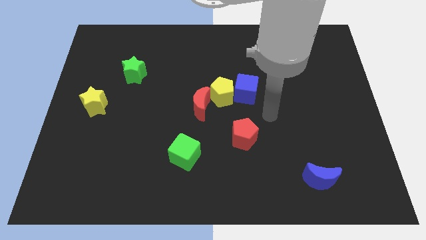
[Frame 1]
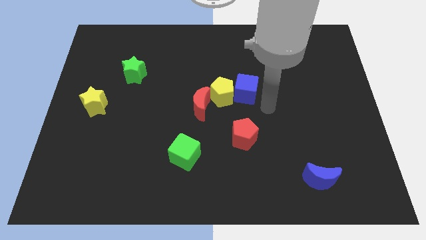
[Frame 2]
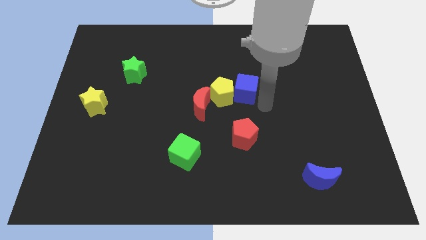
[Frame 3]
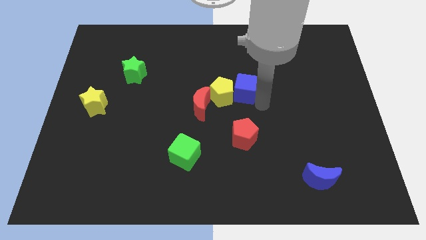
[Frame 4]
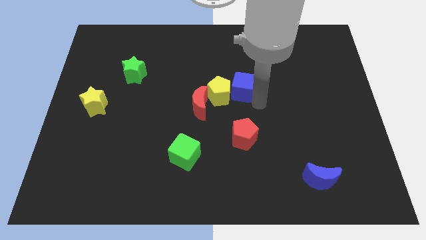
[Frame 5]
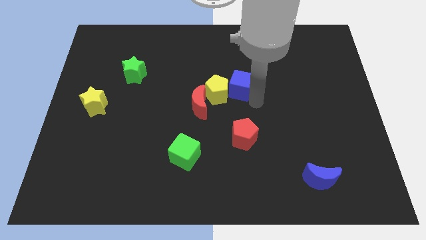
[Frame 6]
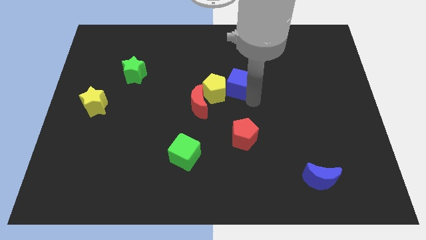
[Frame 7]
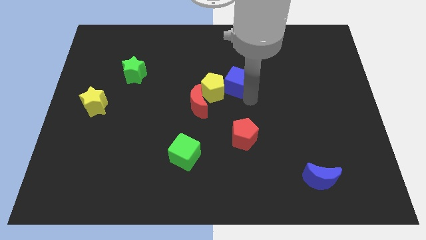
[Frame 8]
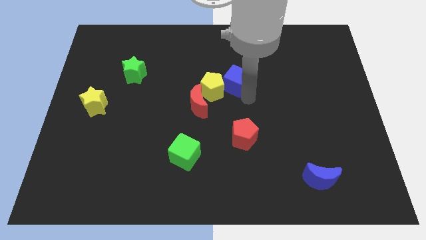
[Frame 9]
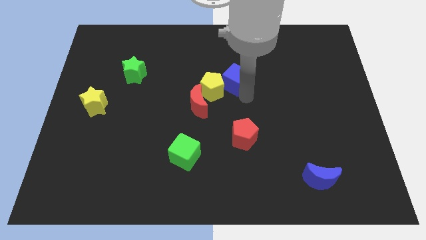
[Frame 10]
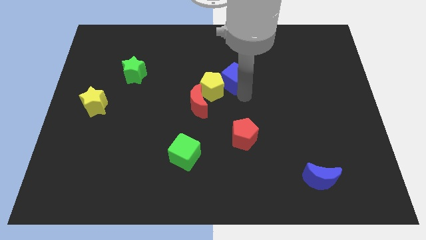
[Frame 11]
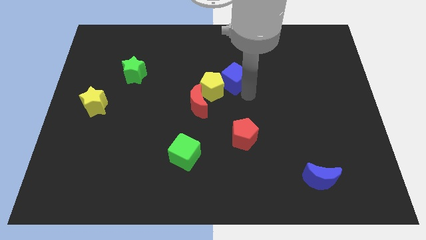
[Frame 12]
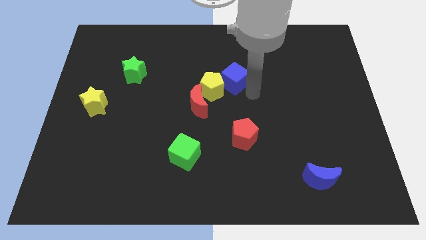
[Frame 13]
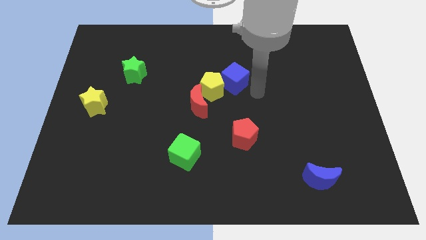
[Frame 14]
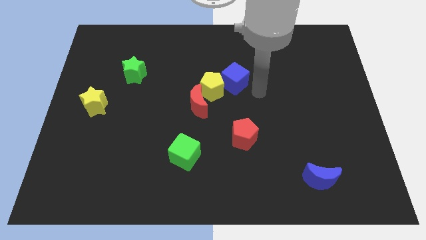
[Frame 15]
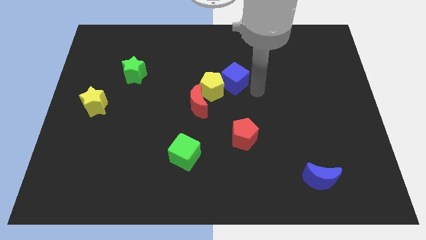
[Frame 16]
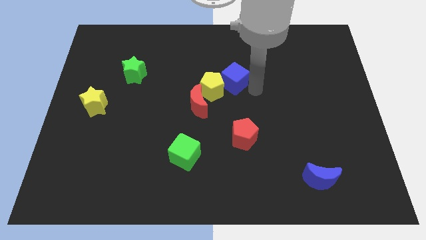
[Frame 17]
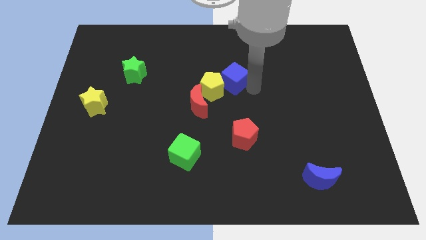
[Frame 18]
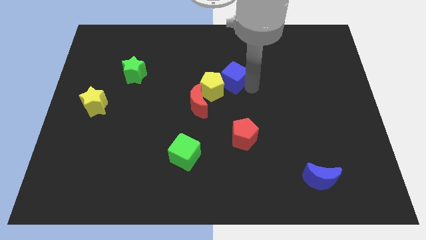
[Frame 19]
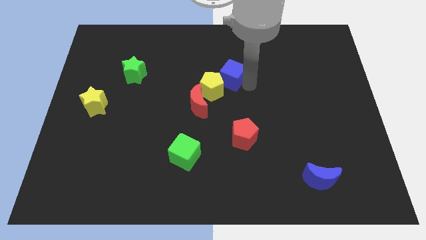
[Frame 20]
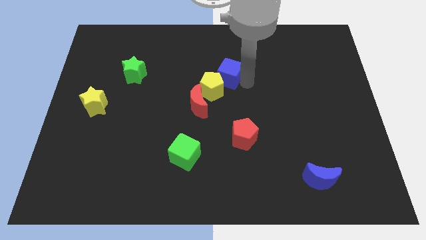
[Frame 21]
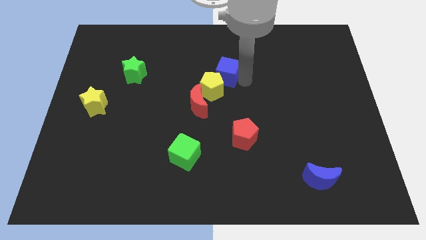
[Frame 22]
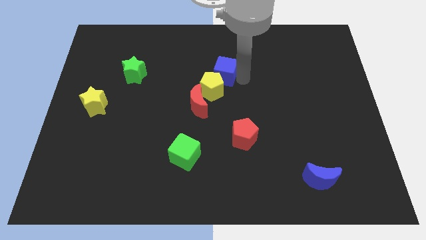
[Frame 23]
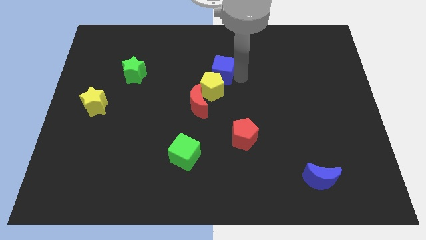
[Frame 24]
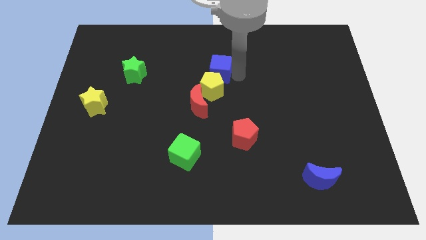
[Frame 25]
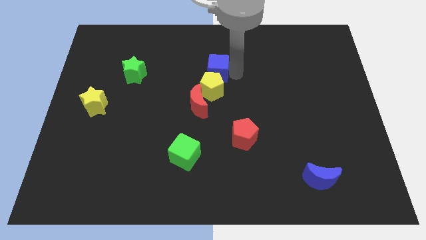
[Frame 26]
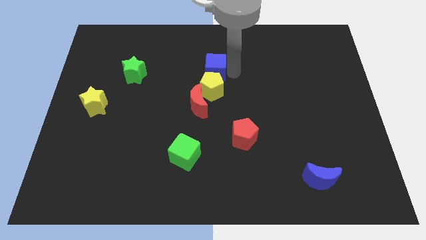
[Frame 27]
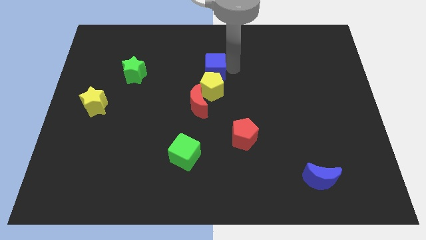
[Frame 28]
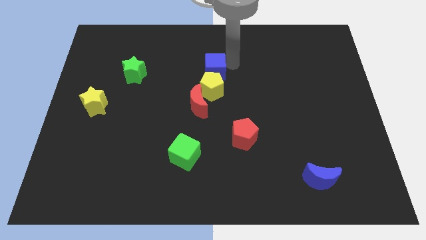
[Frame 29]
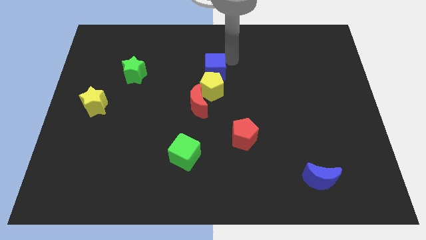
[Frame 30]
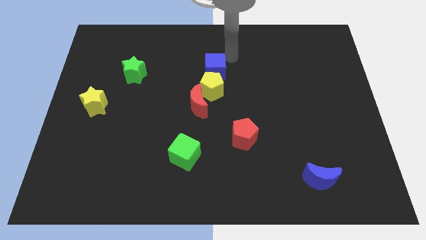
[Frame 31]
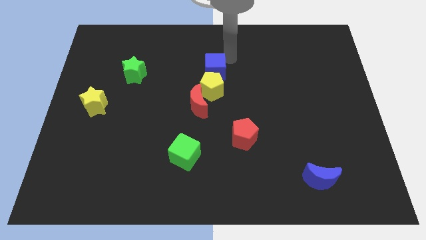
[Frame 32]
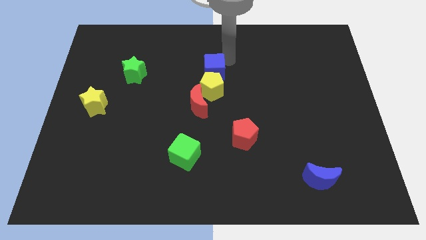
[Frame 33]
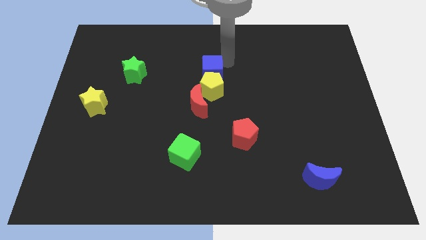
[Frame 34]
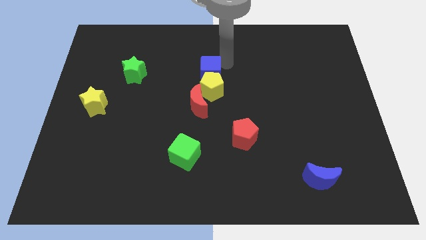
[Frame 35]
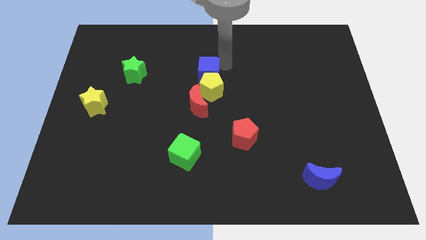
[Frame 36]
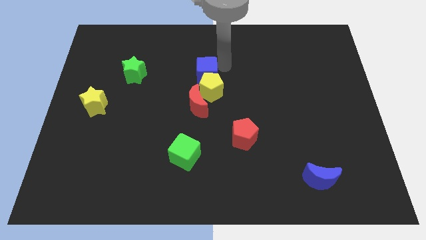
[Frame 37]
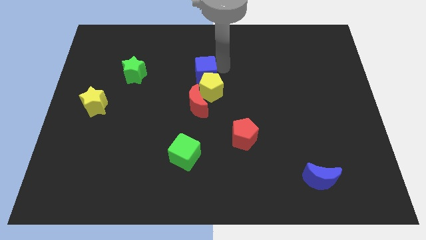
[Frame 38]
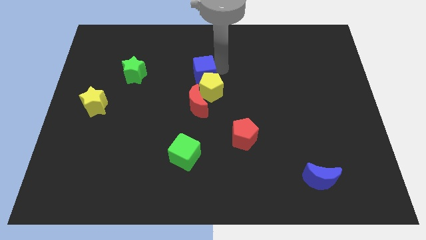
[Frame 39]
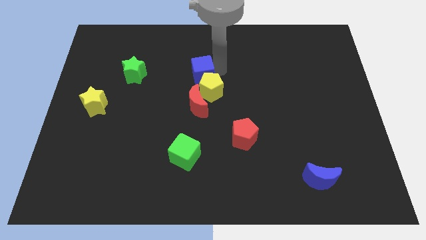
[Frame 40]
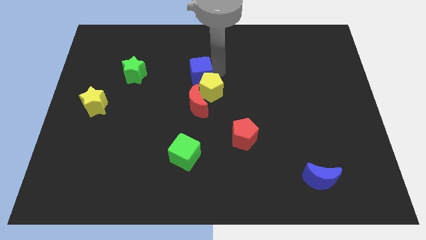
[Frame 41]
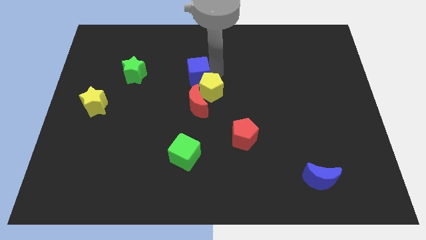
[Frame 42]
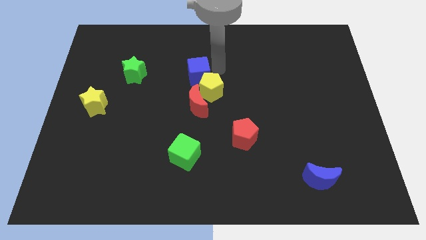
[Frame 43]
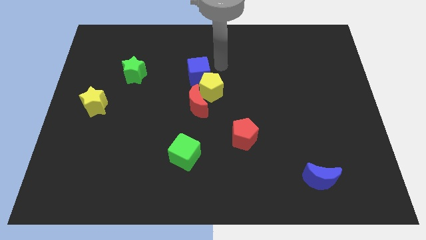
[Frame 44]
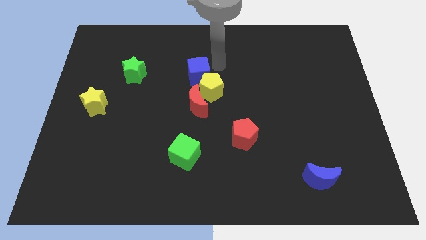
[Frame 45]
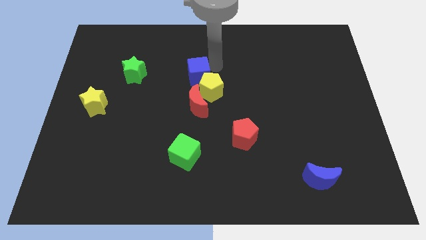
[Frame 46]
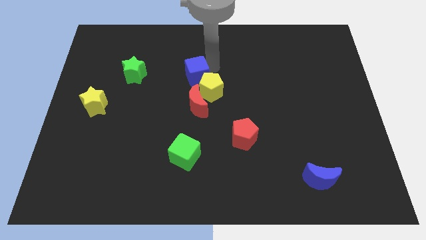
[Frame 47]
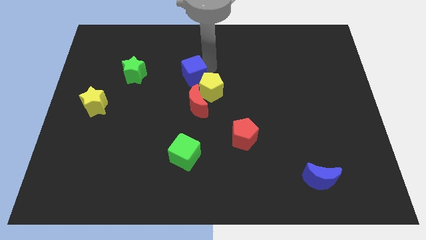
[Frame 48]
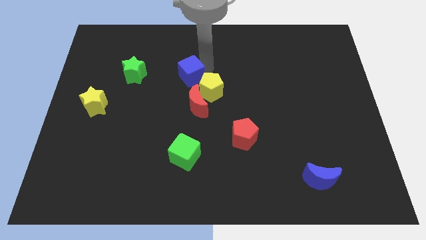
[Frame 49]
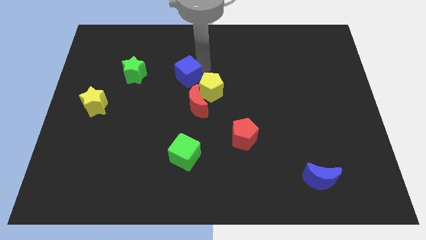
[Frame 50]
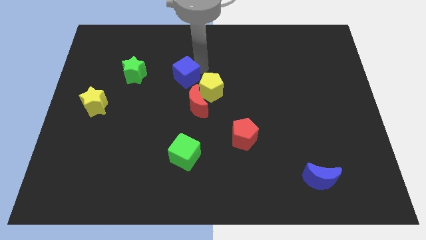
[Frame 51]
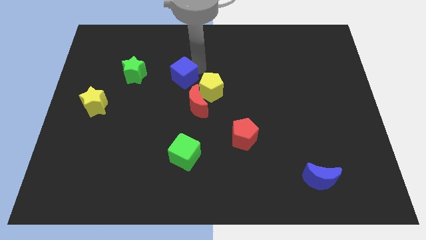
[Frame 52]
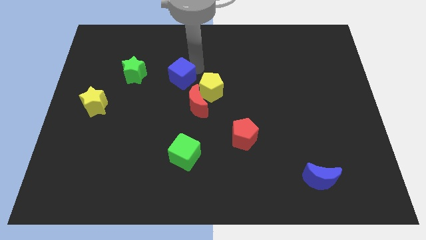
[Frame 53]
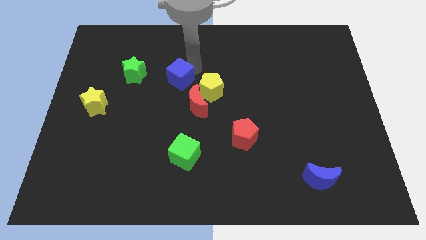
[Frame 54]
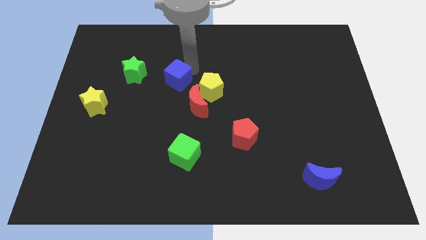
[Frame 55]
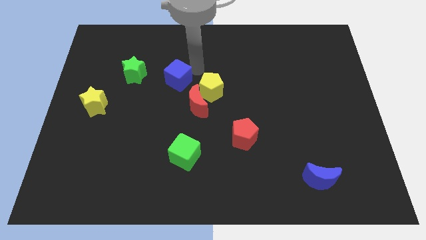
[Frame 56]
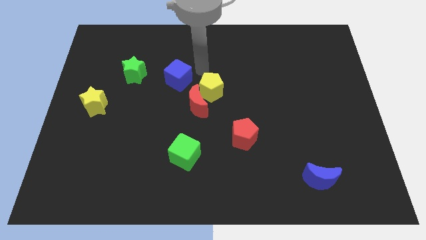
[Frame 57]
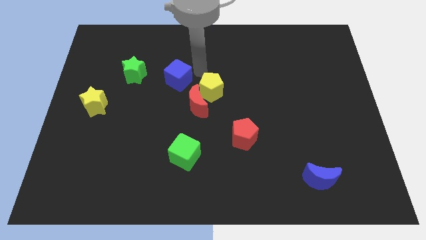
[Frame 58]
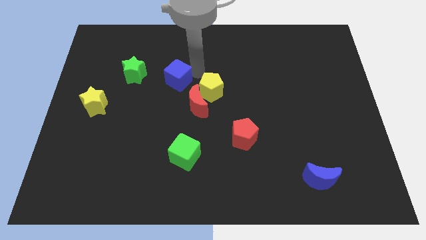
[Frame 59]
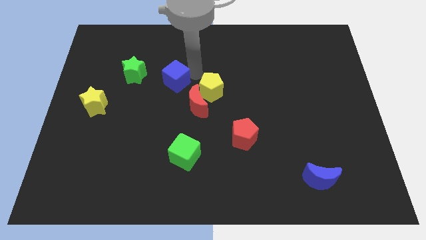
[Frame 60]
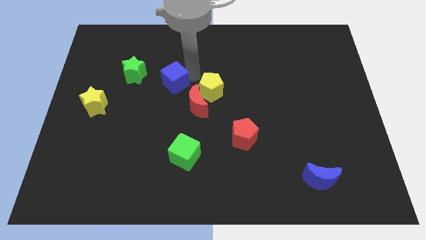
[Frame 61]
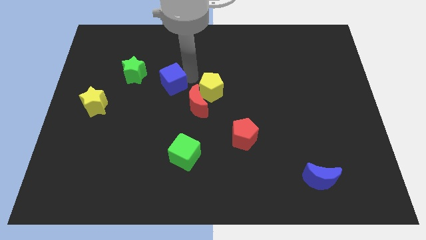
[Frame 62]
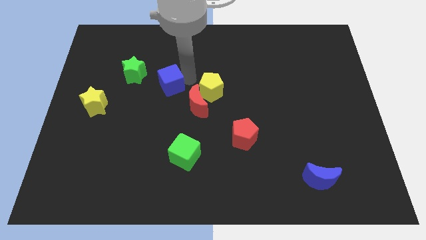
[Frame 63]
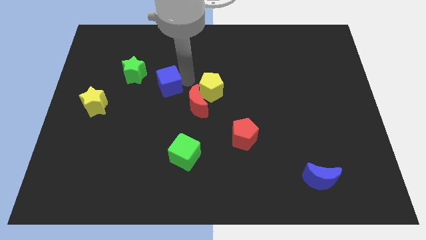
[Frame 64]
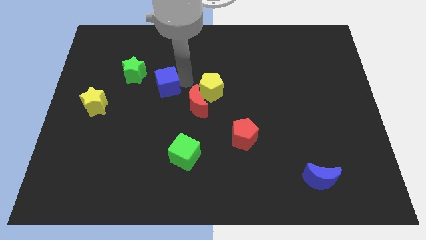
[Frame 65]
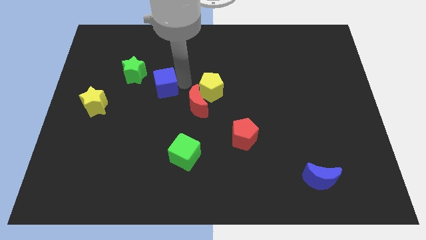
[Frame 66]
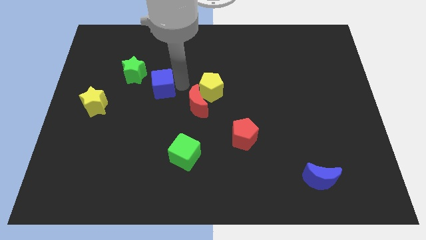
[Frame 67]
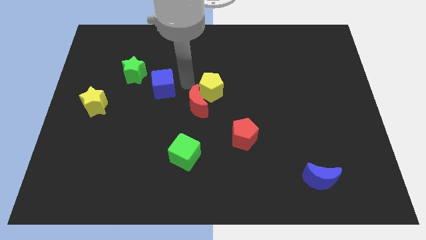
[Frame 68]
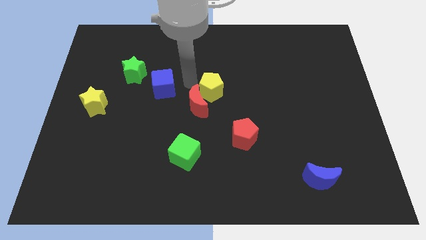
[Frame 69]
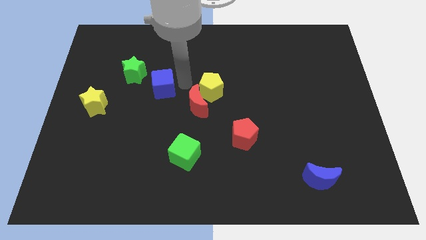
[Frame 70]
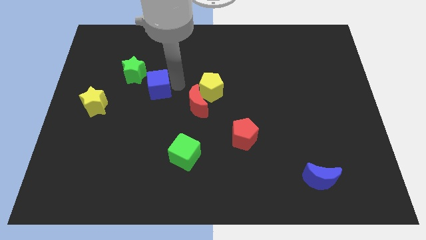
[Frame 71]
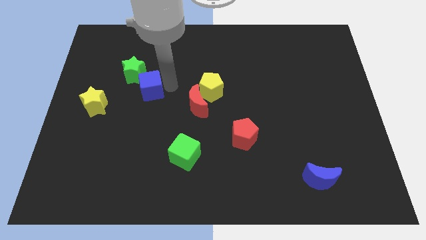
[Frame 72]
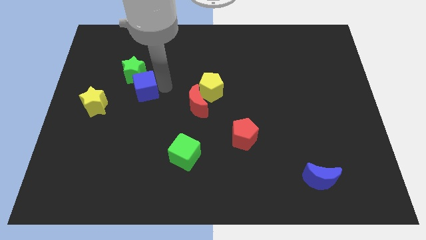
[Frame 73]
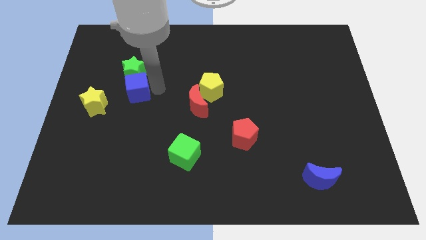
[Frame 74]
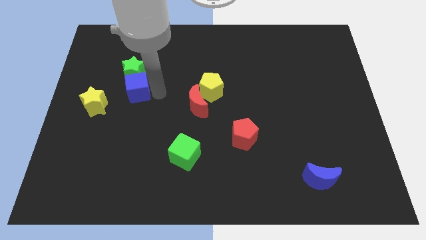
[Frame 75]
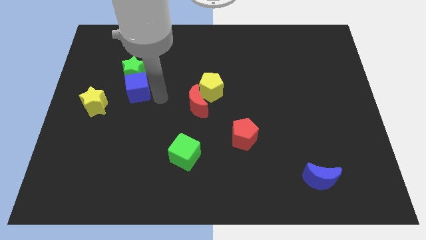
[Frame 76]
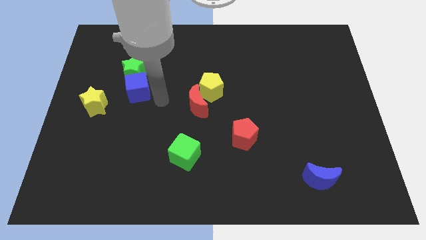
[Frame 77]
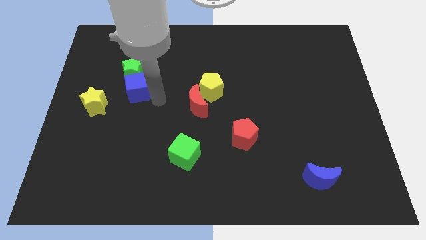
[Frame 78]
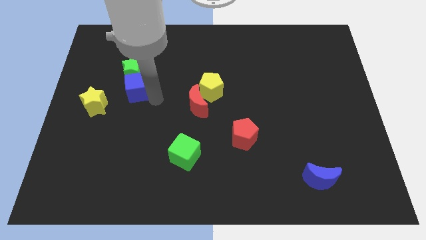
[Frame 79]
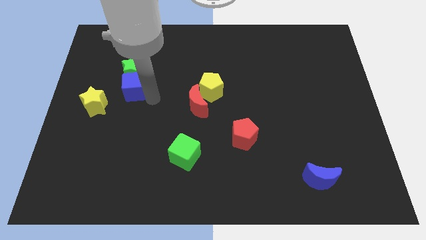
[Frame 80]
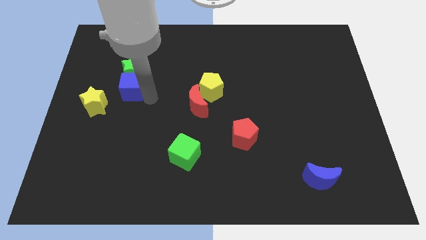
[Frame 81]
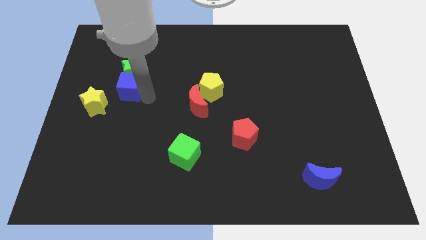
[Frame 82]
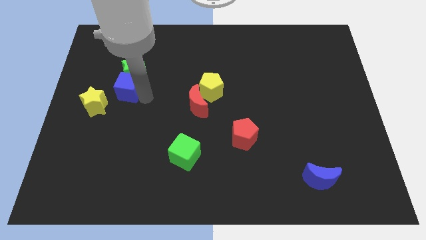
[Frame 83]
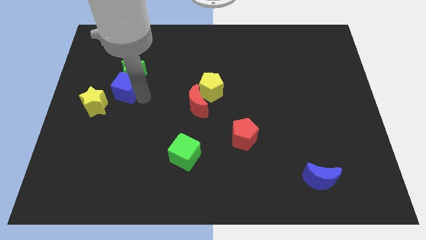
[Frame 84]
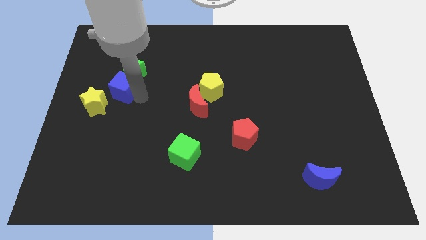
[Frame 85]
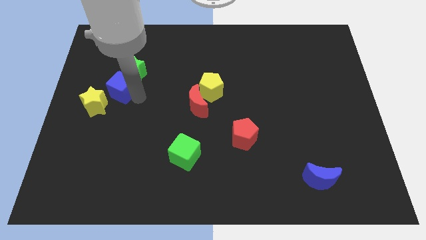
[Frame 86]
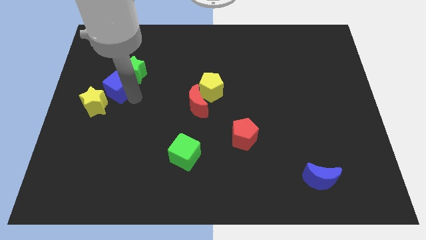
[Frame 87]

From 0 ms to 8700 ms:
push the blue cube to the top side of the yellow star
